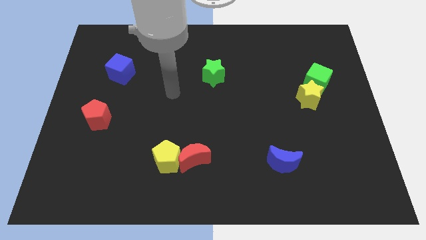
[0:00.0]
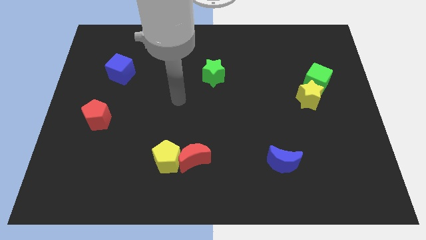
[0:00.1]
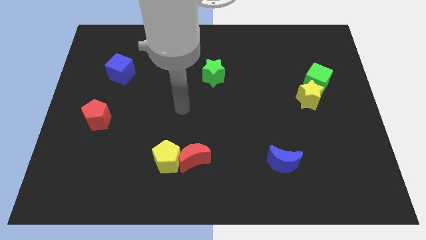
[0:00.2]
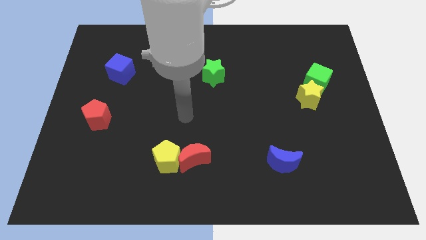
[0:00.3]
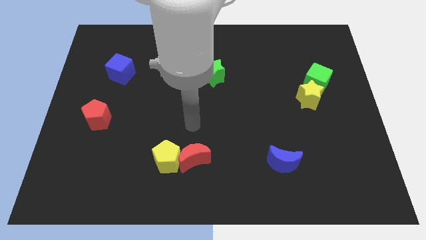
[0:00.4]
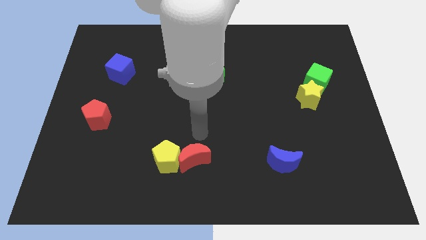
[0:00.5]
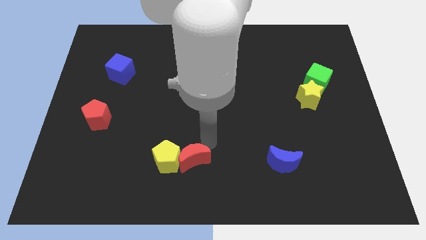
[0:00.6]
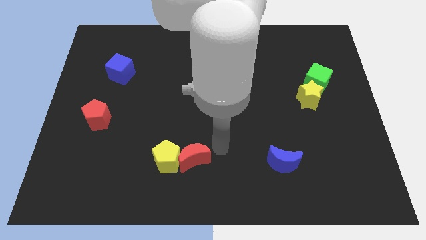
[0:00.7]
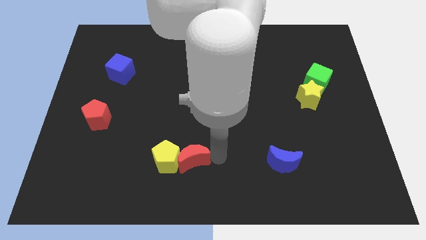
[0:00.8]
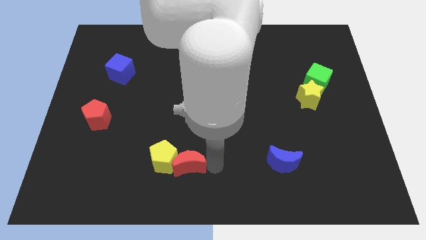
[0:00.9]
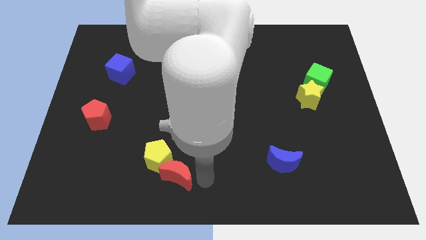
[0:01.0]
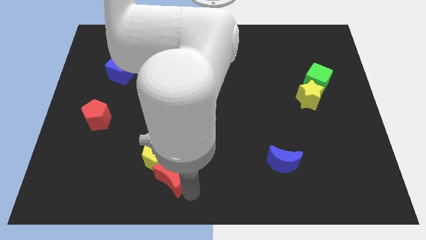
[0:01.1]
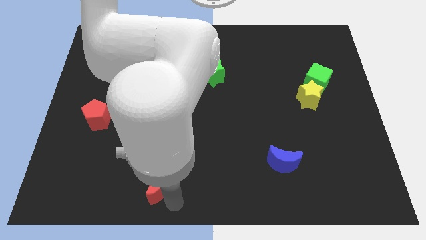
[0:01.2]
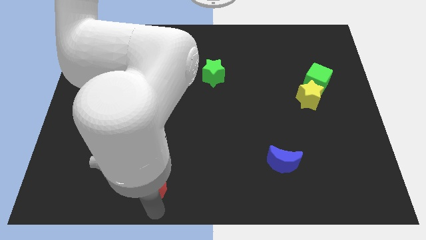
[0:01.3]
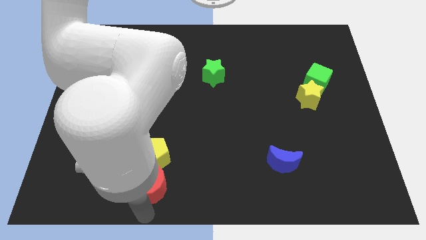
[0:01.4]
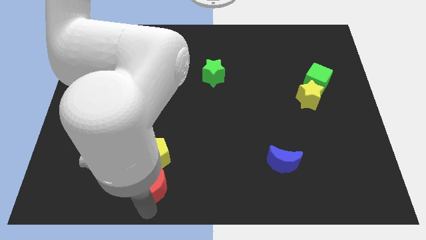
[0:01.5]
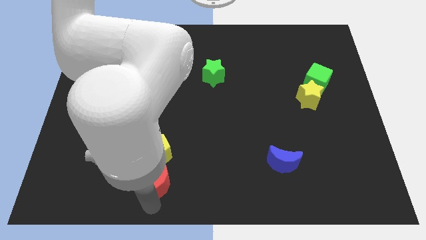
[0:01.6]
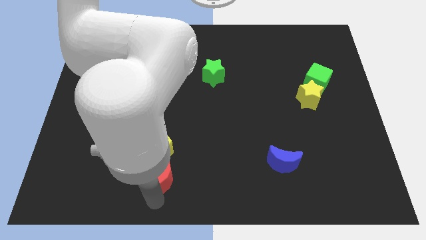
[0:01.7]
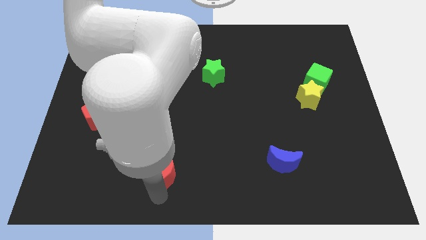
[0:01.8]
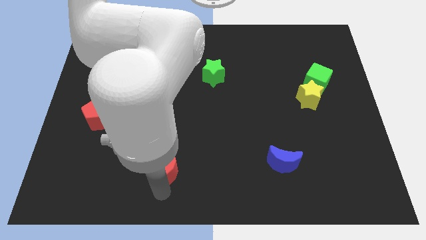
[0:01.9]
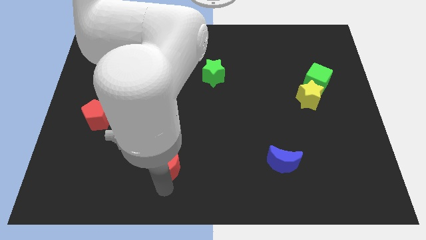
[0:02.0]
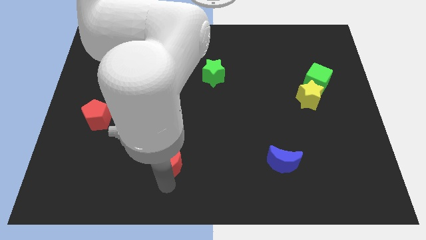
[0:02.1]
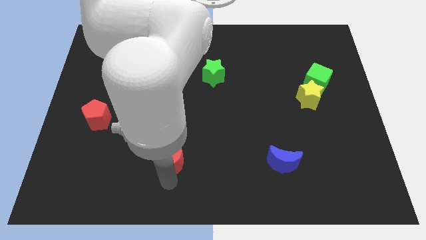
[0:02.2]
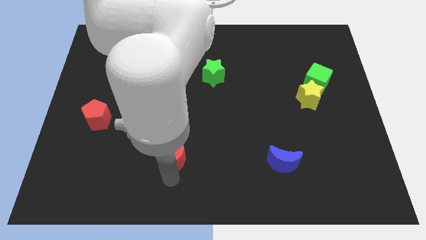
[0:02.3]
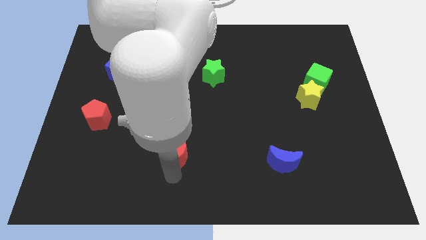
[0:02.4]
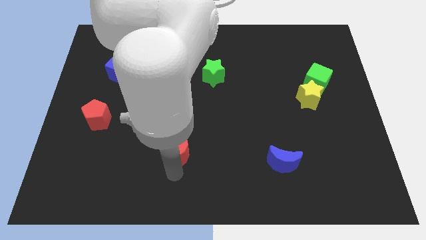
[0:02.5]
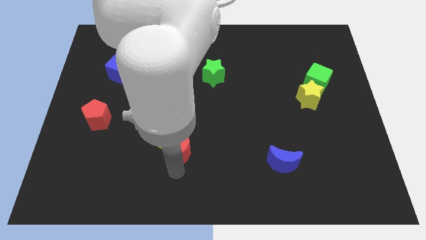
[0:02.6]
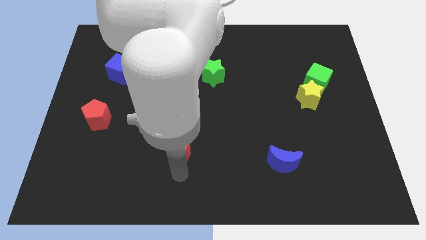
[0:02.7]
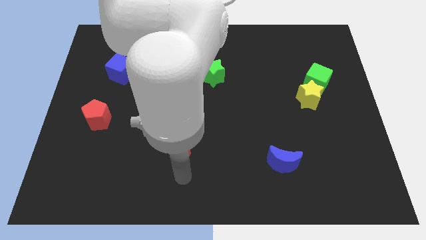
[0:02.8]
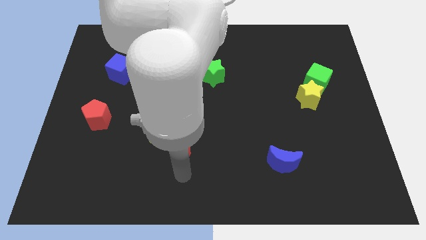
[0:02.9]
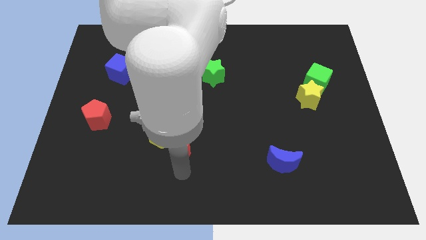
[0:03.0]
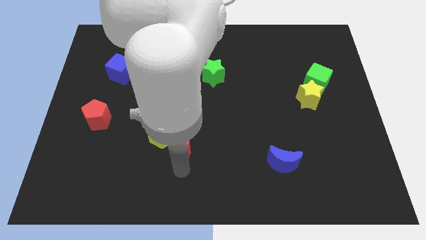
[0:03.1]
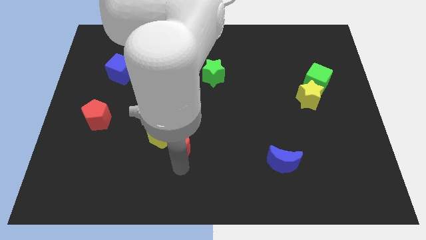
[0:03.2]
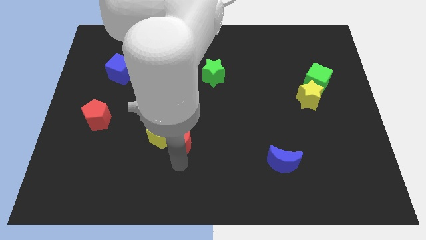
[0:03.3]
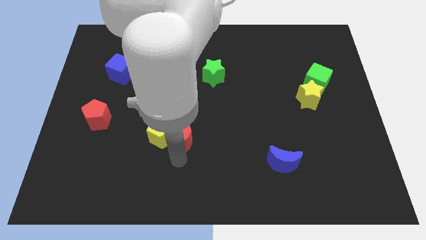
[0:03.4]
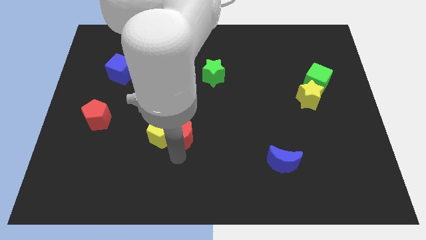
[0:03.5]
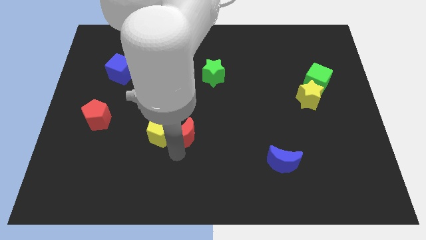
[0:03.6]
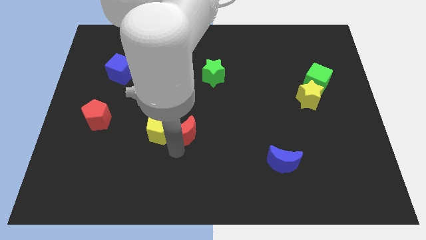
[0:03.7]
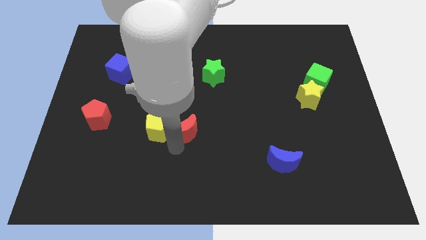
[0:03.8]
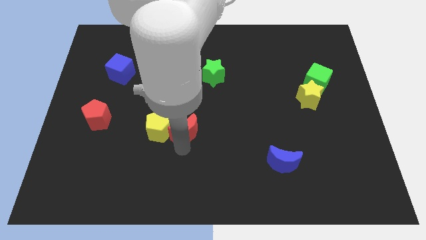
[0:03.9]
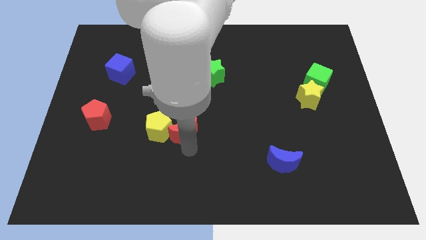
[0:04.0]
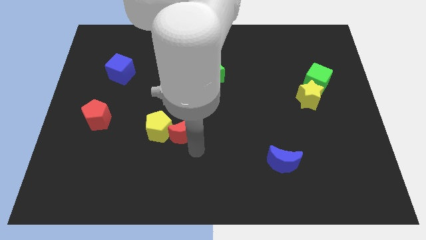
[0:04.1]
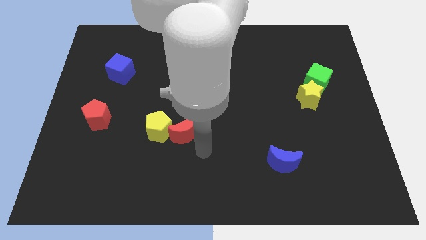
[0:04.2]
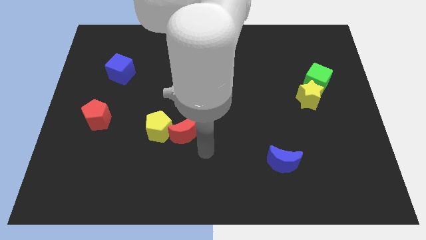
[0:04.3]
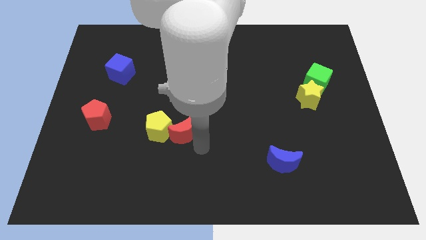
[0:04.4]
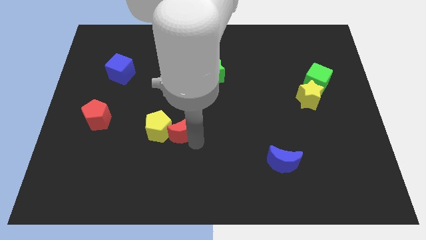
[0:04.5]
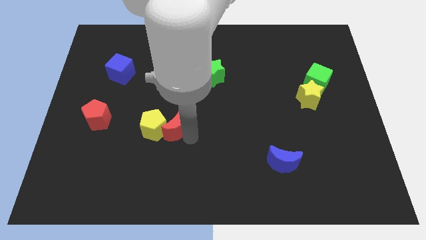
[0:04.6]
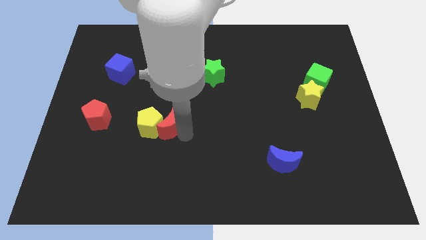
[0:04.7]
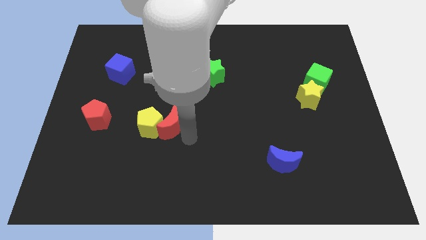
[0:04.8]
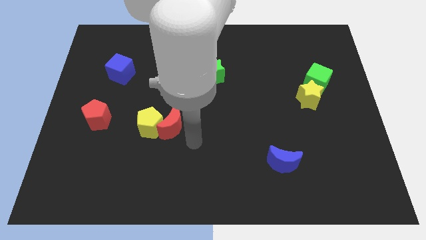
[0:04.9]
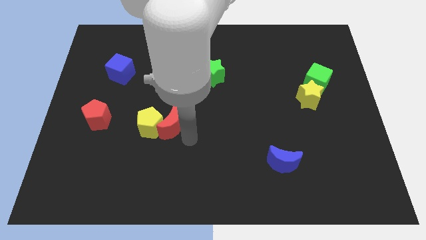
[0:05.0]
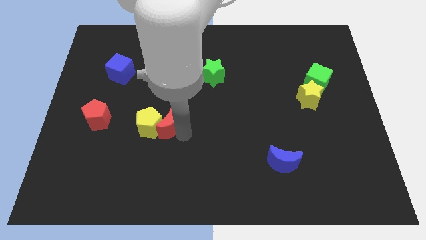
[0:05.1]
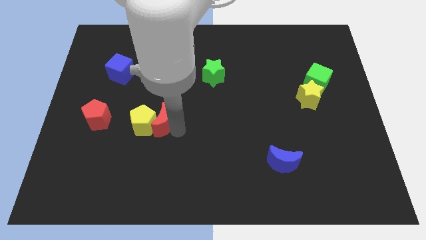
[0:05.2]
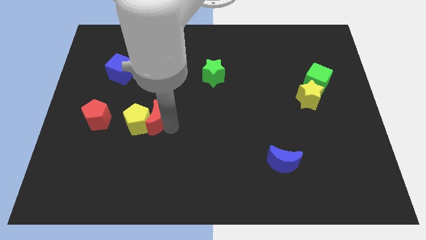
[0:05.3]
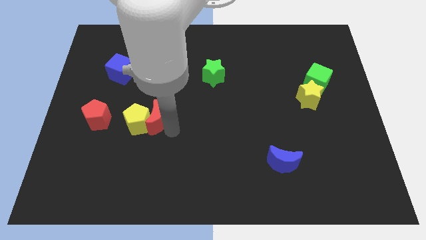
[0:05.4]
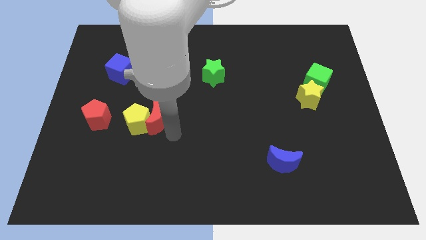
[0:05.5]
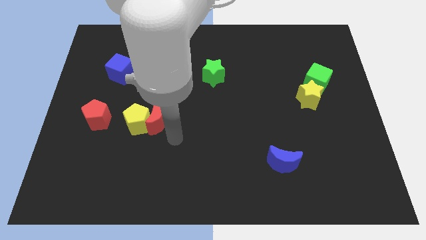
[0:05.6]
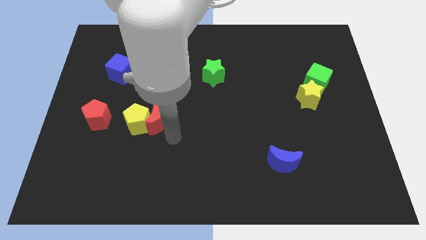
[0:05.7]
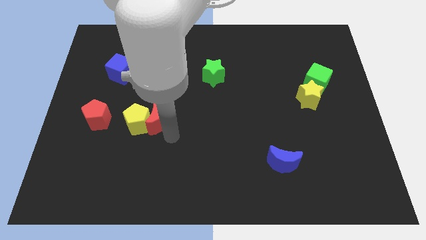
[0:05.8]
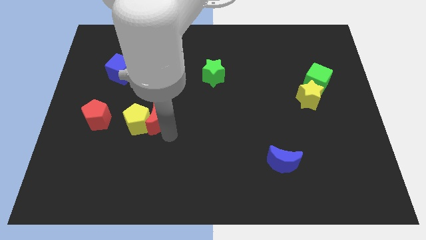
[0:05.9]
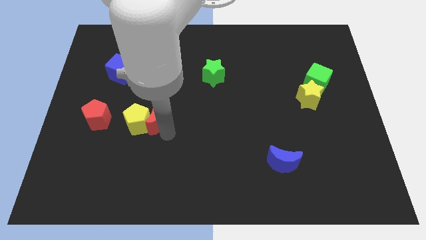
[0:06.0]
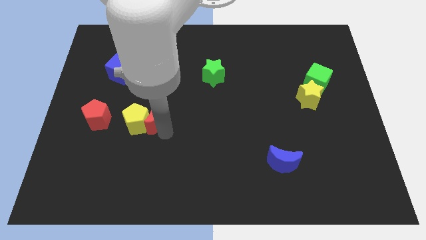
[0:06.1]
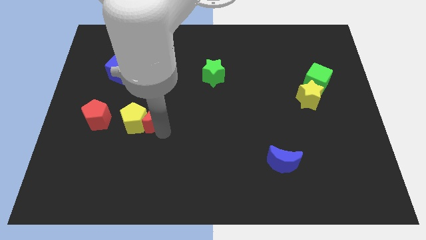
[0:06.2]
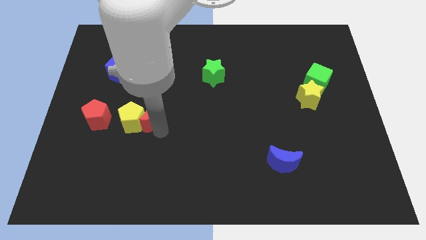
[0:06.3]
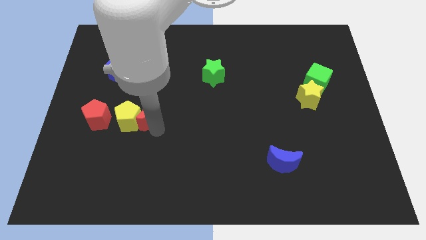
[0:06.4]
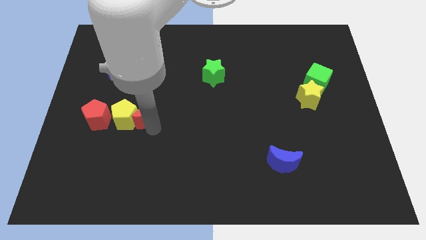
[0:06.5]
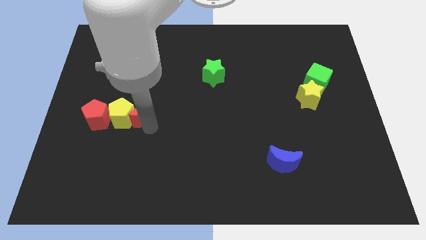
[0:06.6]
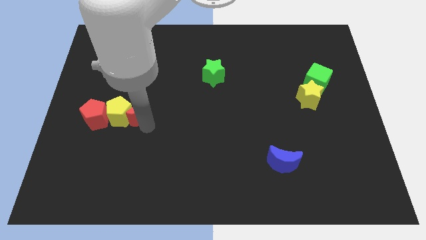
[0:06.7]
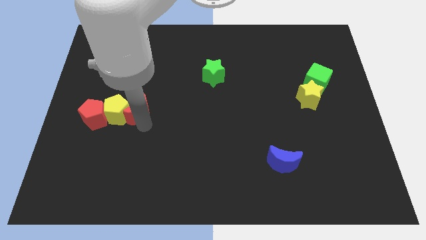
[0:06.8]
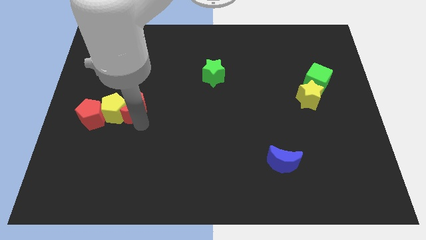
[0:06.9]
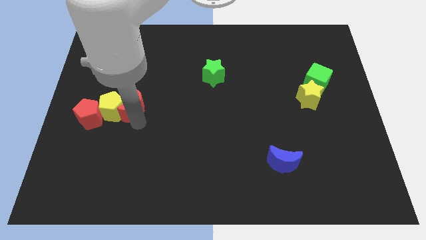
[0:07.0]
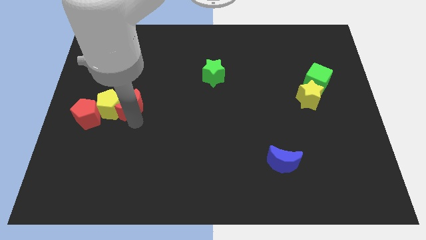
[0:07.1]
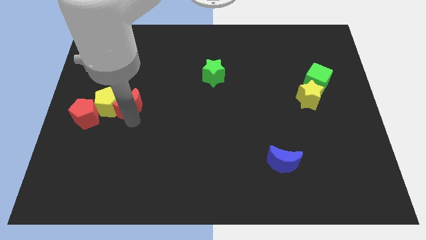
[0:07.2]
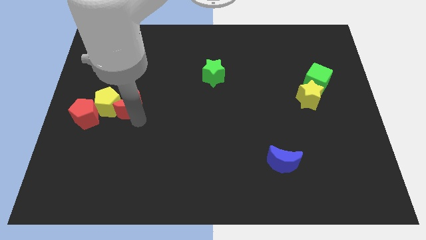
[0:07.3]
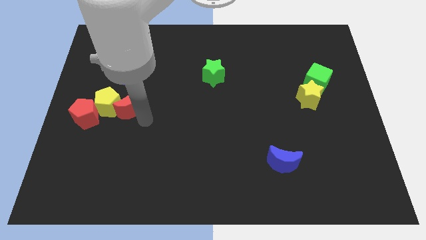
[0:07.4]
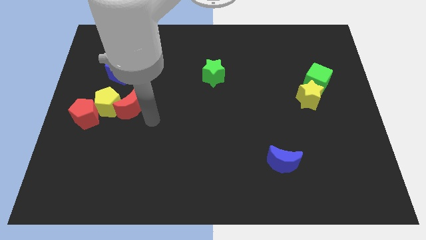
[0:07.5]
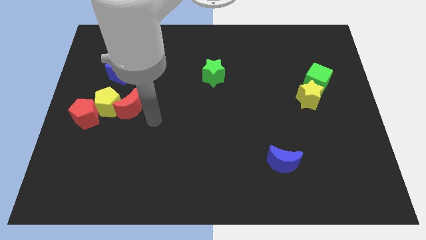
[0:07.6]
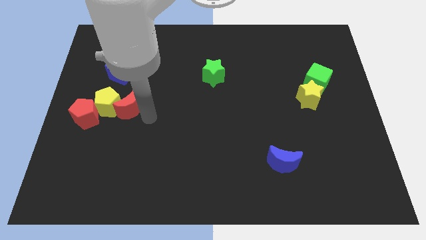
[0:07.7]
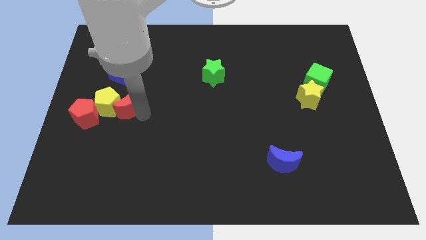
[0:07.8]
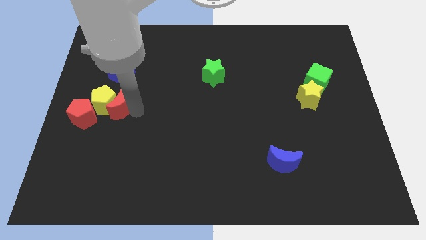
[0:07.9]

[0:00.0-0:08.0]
move the red moon diagonally up and to the right of the red pentagon

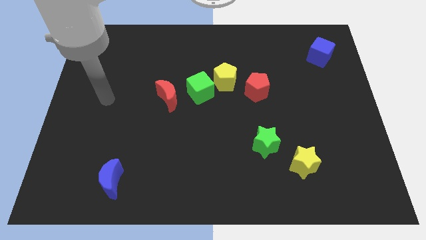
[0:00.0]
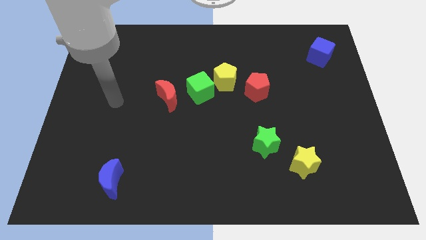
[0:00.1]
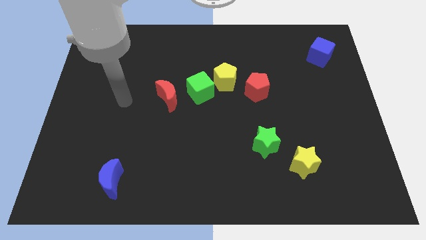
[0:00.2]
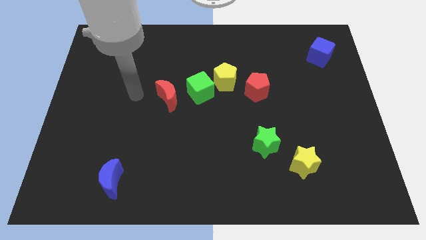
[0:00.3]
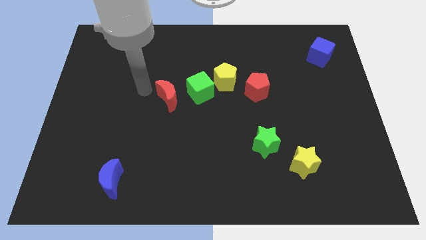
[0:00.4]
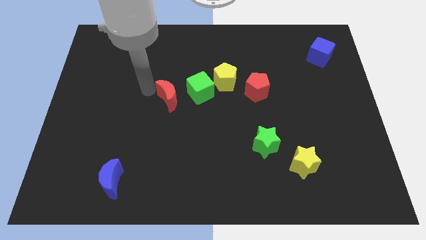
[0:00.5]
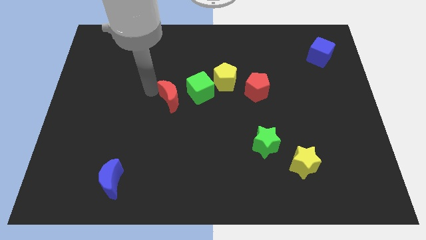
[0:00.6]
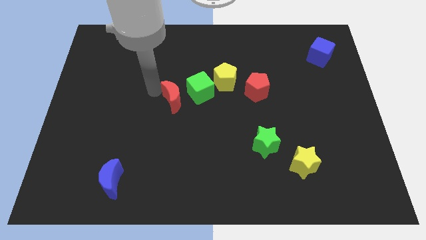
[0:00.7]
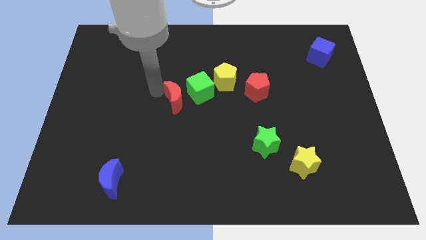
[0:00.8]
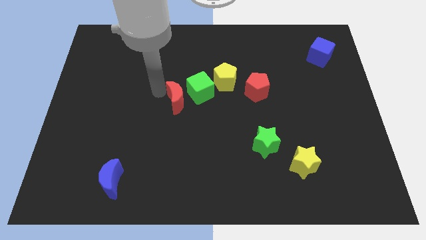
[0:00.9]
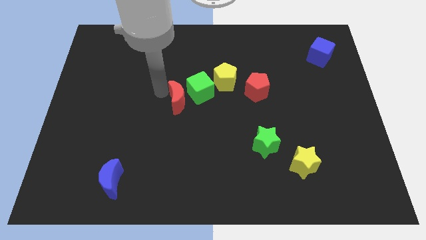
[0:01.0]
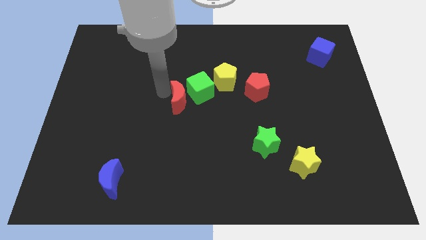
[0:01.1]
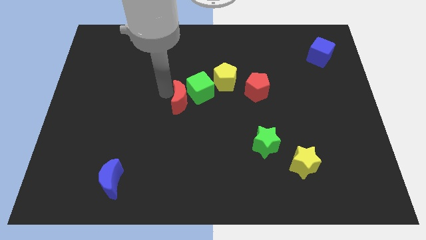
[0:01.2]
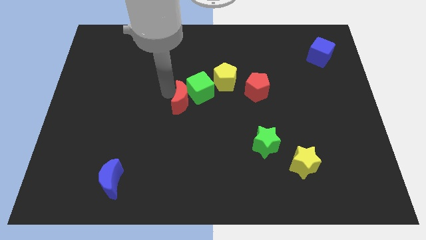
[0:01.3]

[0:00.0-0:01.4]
slide the red moon diagonally down and to the left of the yellow pentagon
